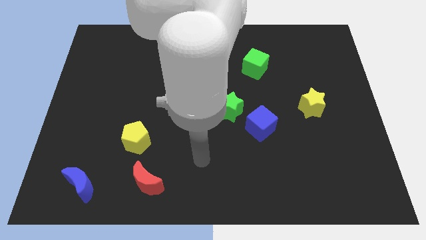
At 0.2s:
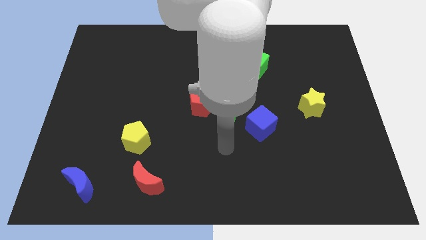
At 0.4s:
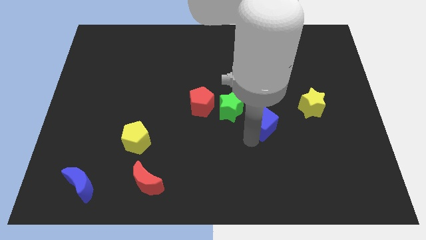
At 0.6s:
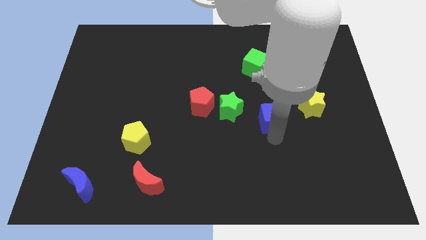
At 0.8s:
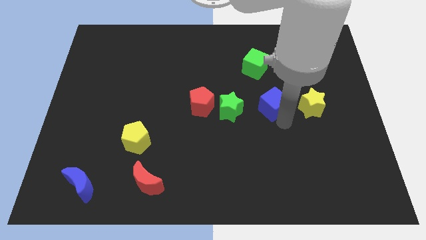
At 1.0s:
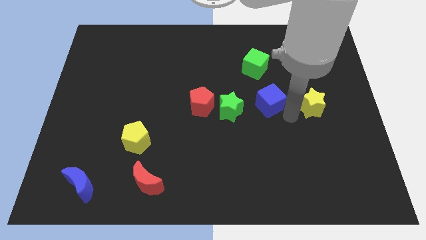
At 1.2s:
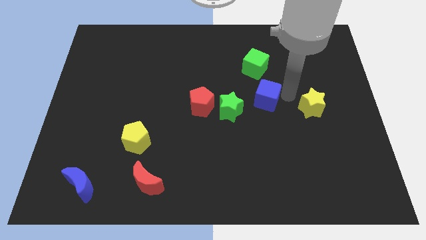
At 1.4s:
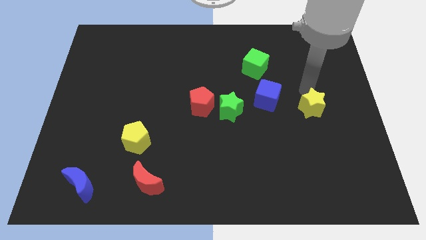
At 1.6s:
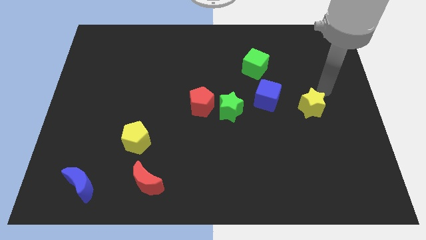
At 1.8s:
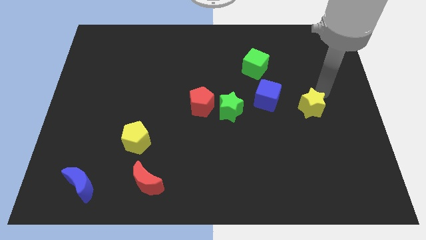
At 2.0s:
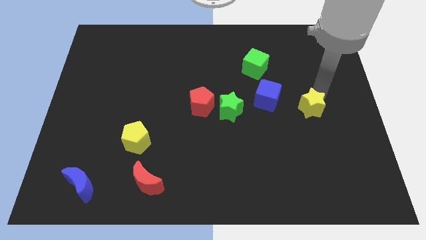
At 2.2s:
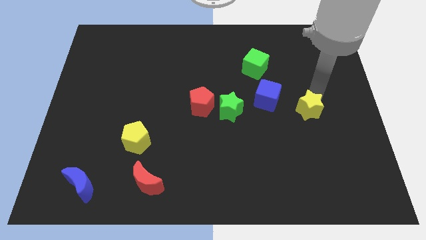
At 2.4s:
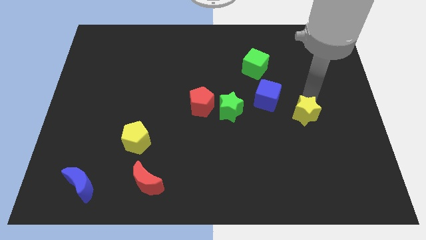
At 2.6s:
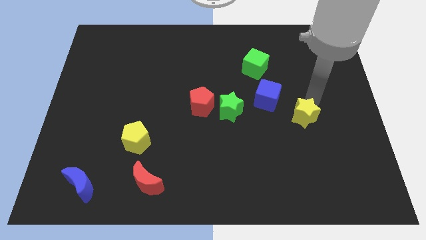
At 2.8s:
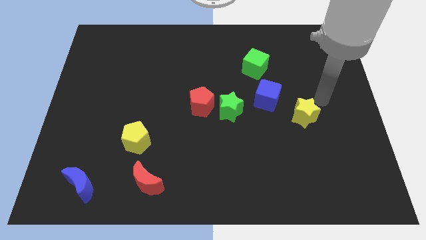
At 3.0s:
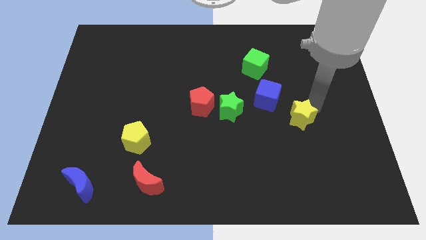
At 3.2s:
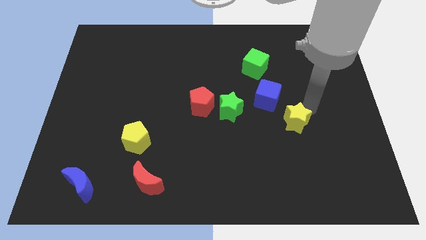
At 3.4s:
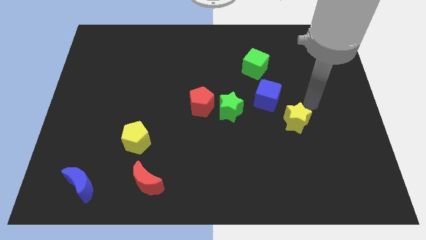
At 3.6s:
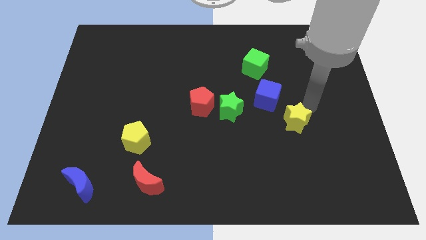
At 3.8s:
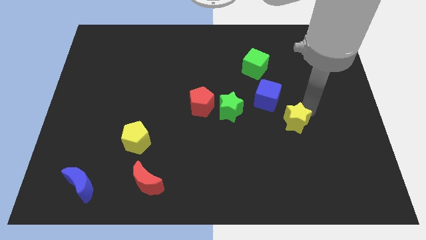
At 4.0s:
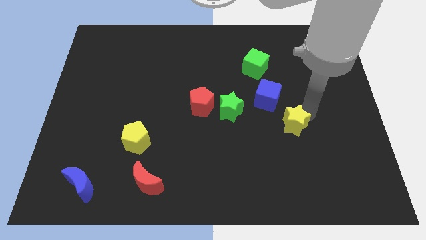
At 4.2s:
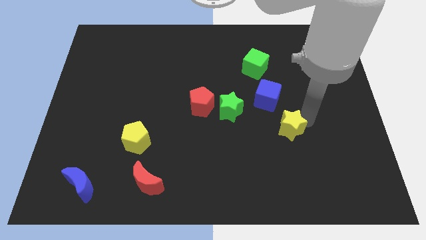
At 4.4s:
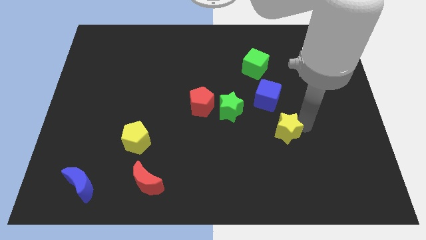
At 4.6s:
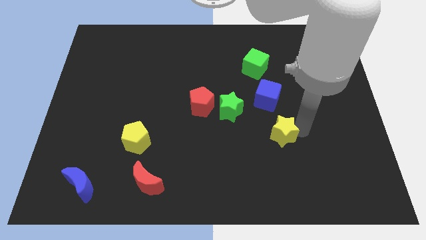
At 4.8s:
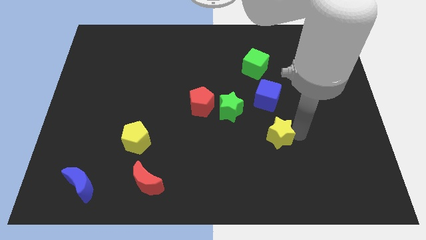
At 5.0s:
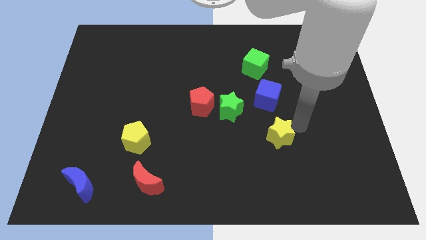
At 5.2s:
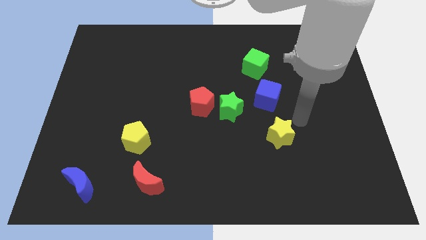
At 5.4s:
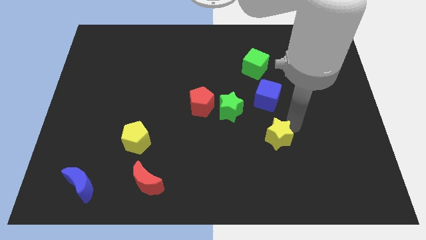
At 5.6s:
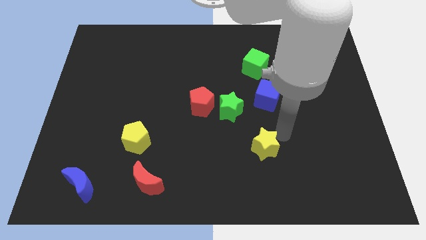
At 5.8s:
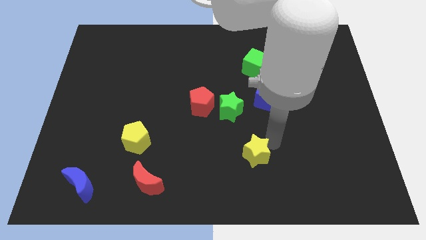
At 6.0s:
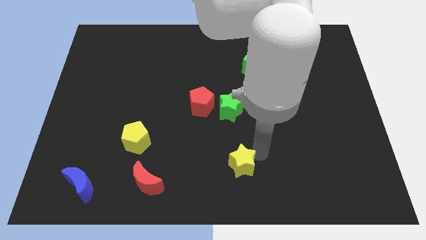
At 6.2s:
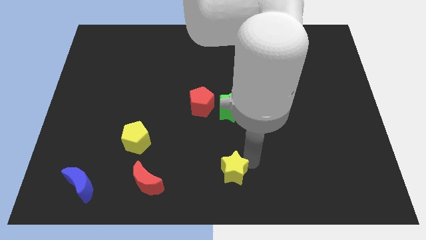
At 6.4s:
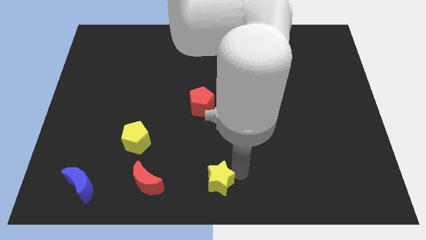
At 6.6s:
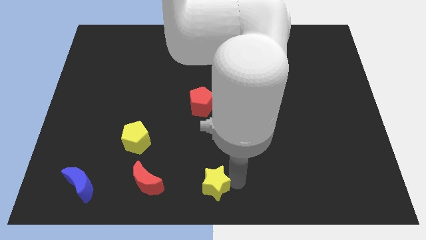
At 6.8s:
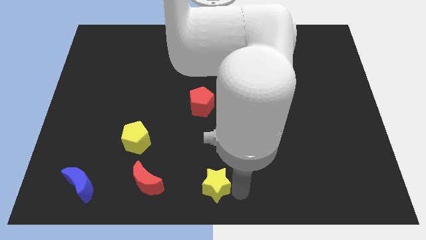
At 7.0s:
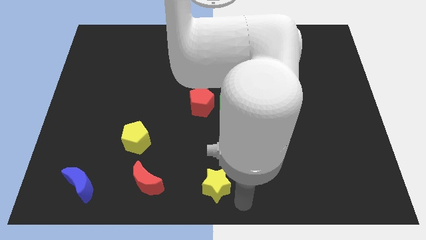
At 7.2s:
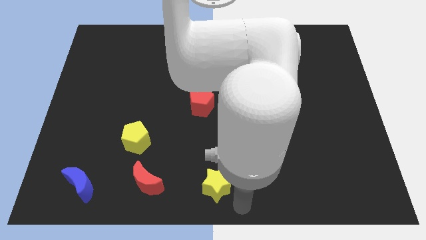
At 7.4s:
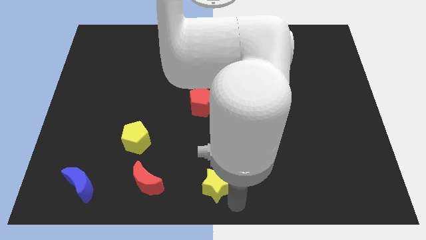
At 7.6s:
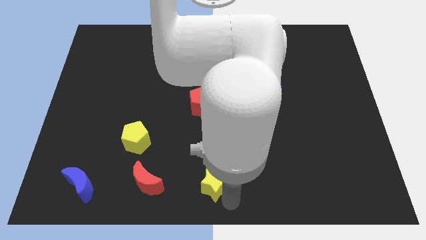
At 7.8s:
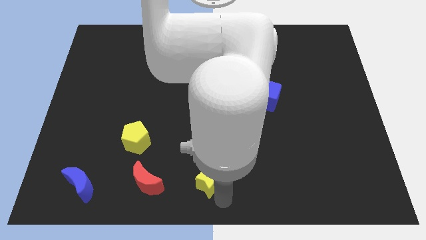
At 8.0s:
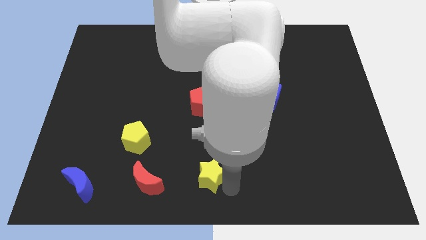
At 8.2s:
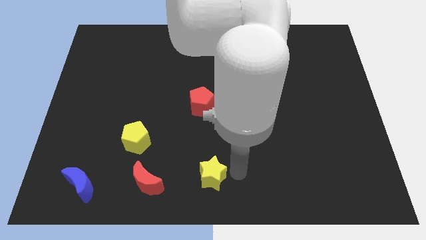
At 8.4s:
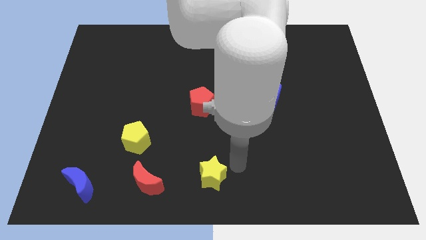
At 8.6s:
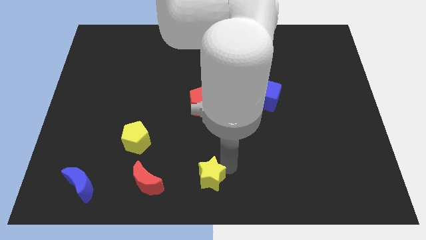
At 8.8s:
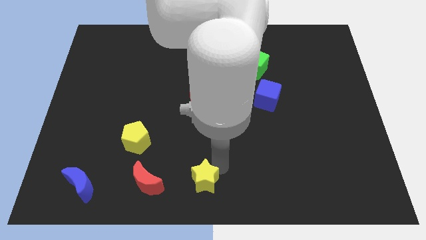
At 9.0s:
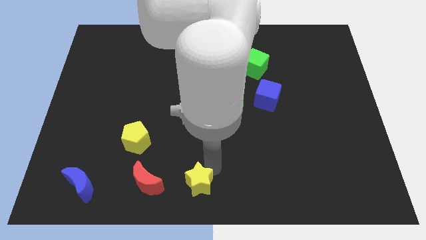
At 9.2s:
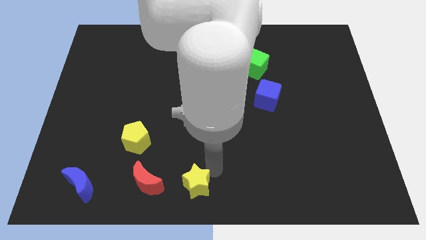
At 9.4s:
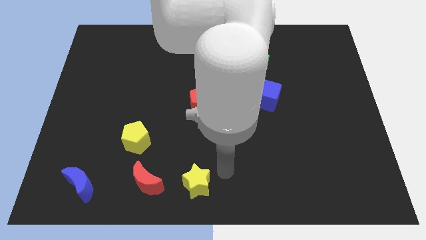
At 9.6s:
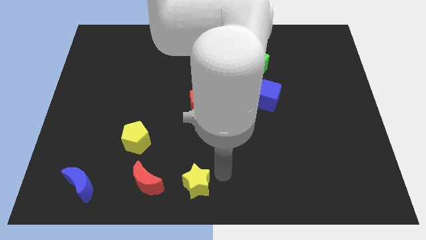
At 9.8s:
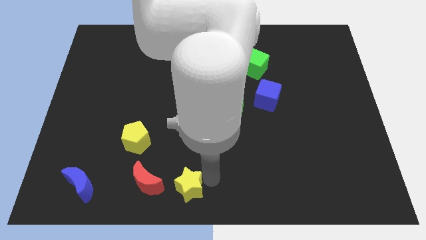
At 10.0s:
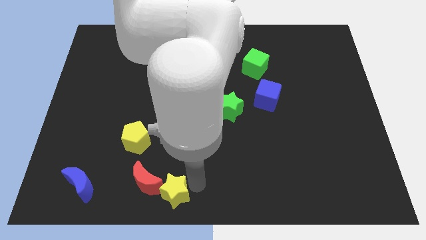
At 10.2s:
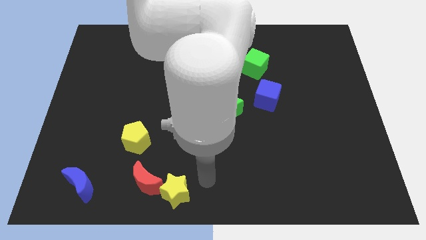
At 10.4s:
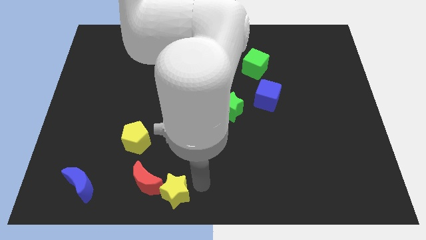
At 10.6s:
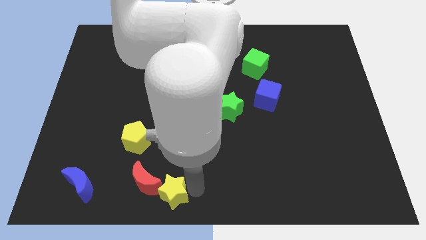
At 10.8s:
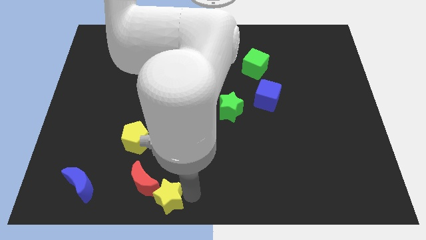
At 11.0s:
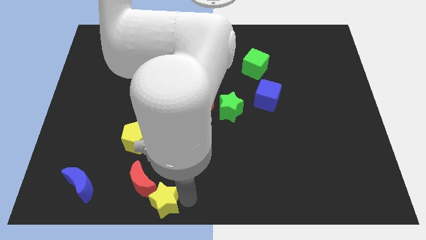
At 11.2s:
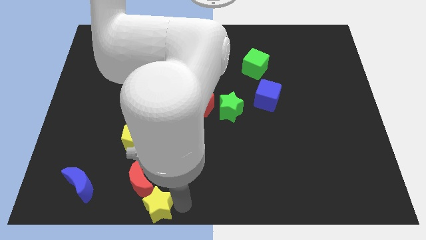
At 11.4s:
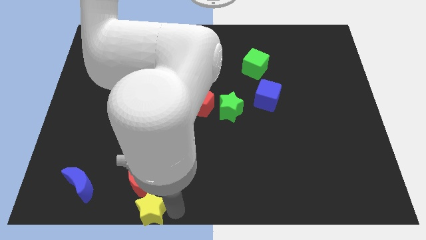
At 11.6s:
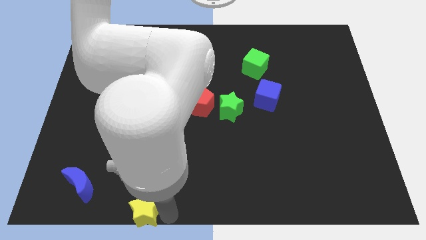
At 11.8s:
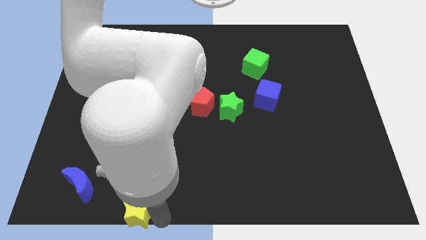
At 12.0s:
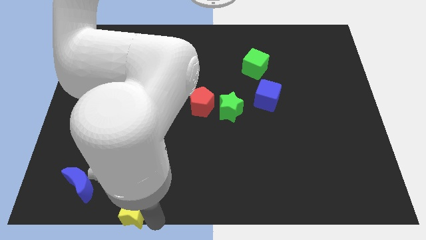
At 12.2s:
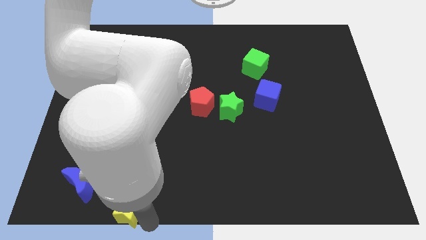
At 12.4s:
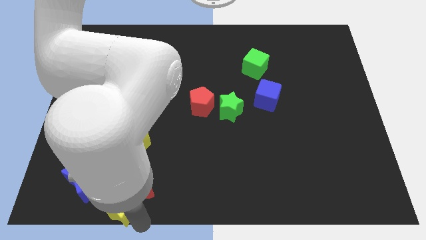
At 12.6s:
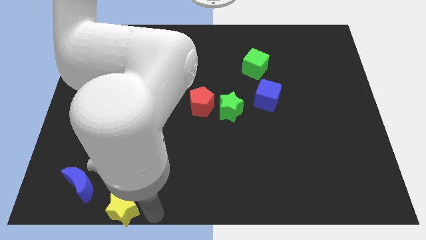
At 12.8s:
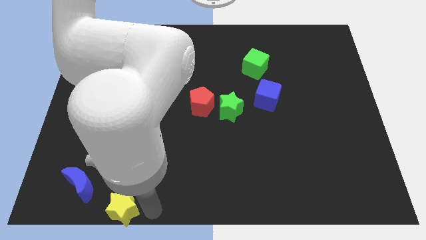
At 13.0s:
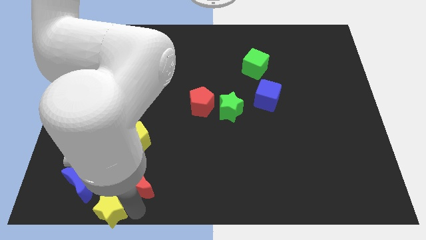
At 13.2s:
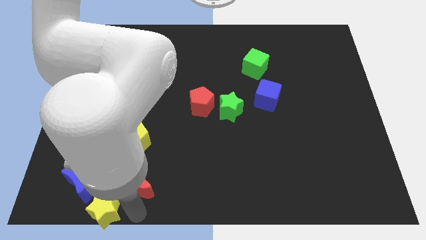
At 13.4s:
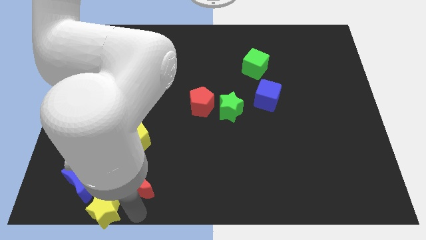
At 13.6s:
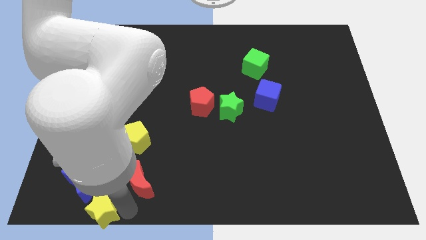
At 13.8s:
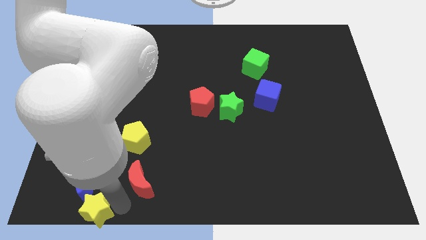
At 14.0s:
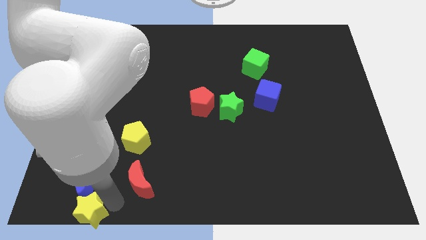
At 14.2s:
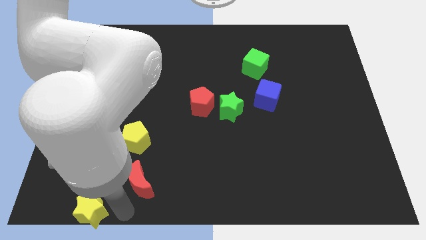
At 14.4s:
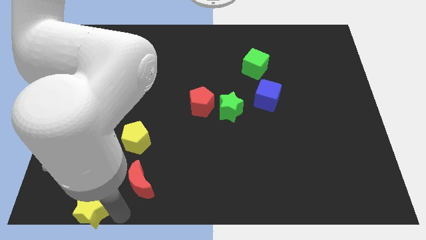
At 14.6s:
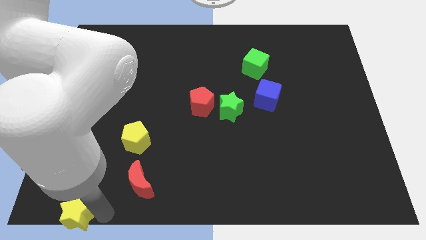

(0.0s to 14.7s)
push the yellow star to the bottom left

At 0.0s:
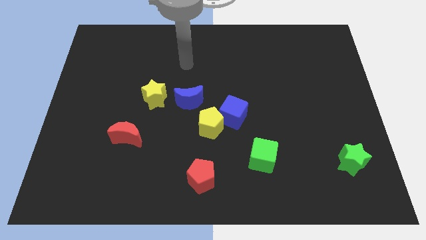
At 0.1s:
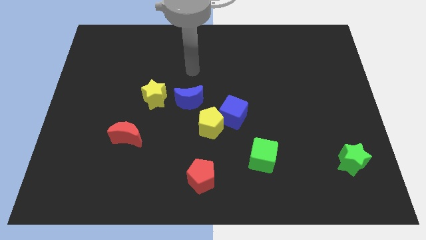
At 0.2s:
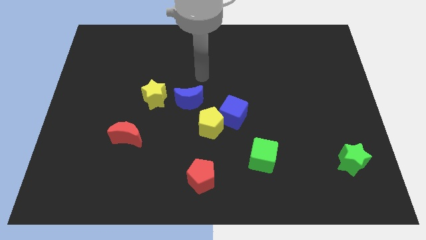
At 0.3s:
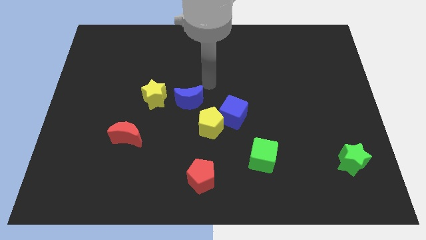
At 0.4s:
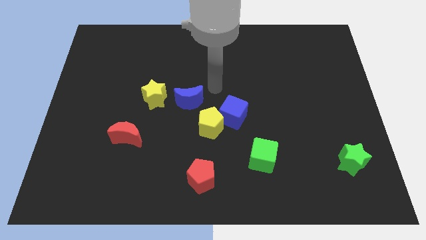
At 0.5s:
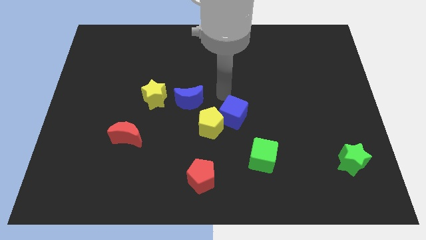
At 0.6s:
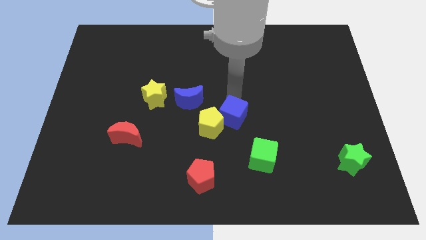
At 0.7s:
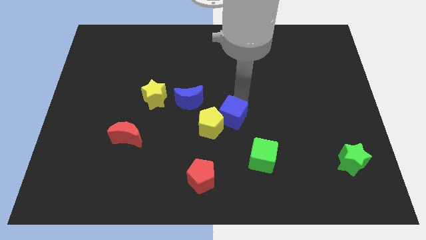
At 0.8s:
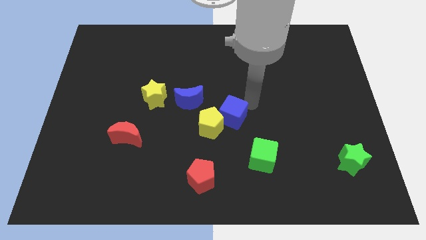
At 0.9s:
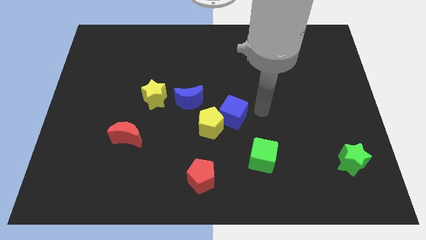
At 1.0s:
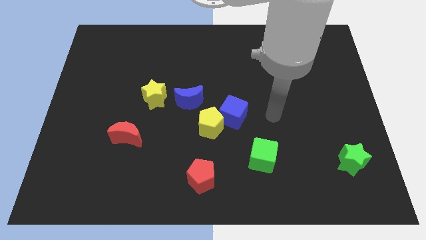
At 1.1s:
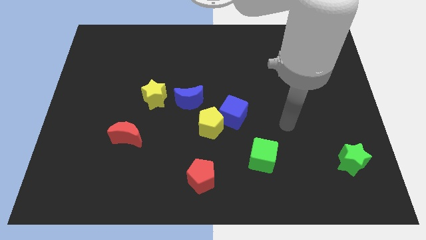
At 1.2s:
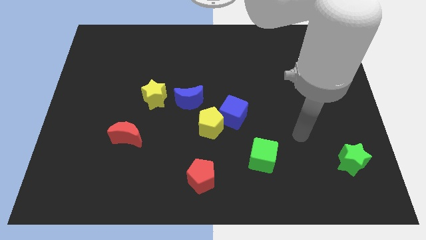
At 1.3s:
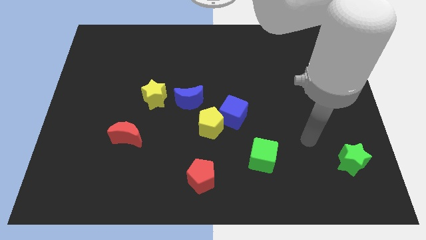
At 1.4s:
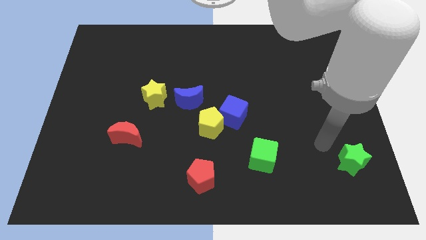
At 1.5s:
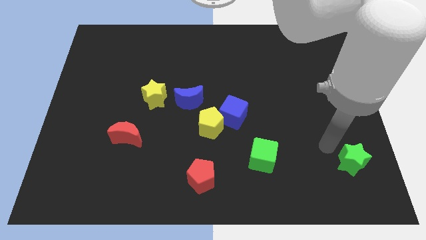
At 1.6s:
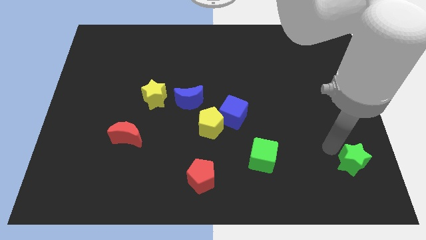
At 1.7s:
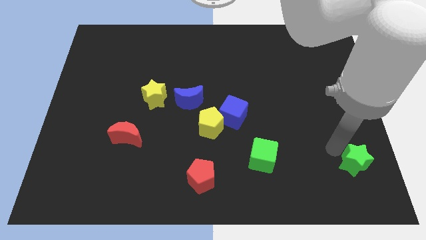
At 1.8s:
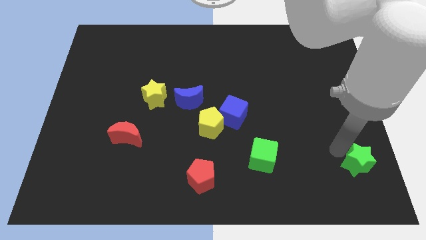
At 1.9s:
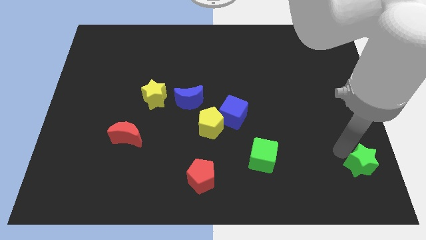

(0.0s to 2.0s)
move the green star to the lower right corner
